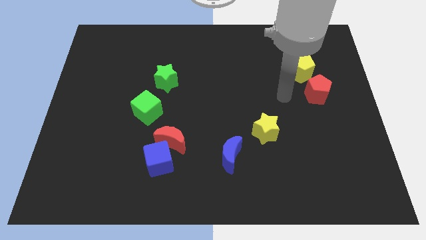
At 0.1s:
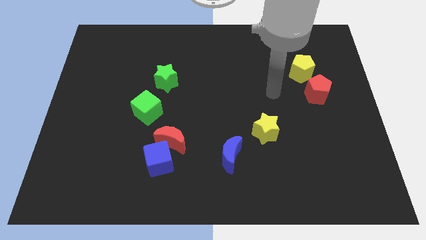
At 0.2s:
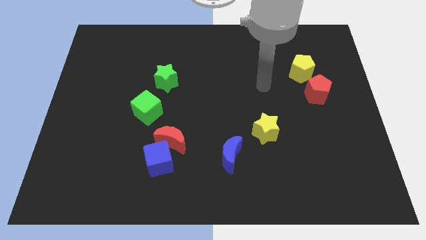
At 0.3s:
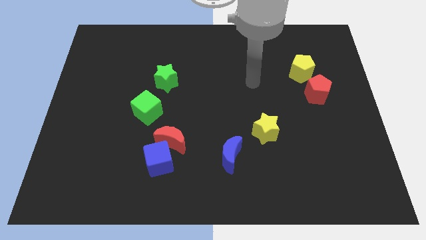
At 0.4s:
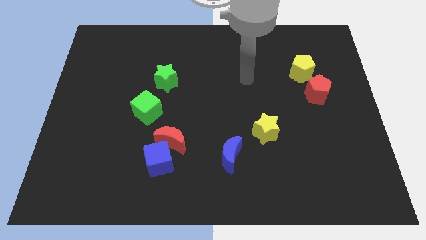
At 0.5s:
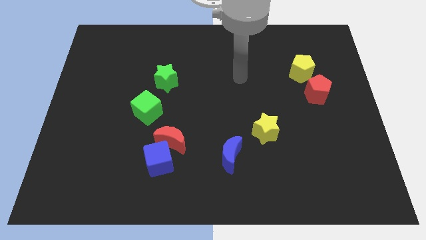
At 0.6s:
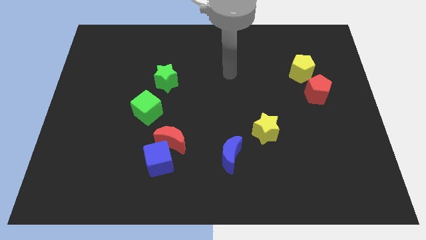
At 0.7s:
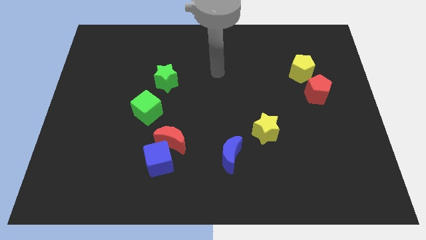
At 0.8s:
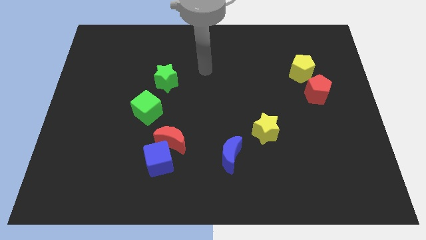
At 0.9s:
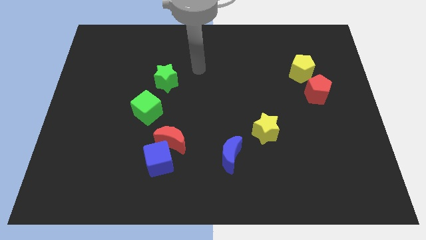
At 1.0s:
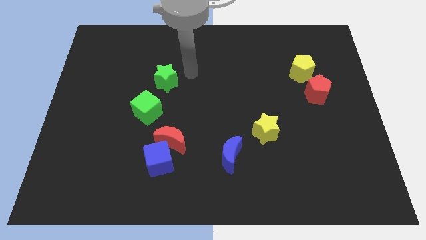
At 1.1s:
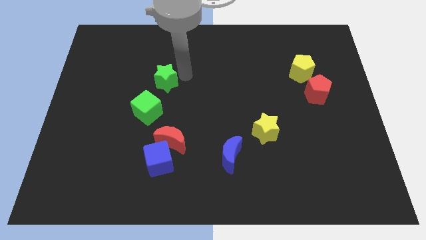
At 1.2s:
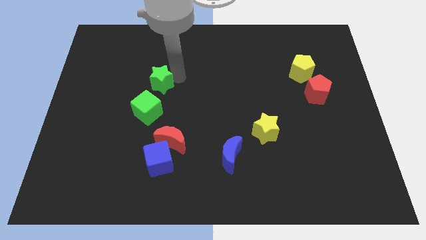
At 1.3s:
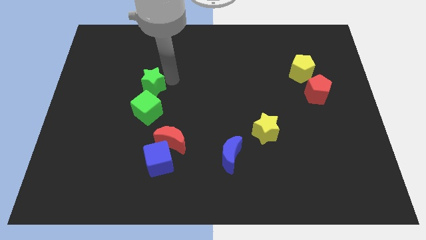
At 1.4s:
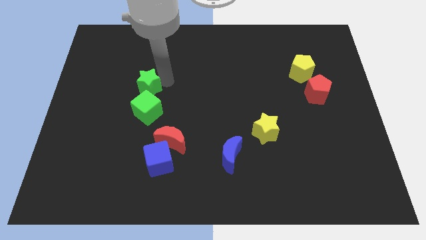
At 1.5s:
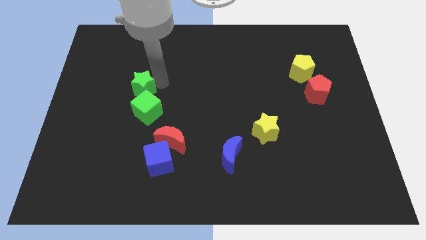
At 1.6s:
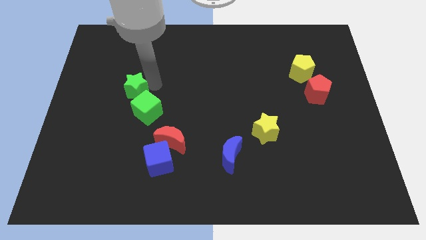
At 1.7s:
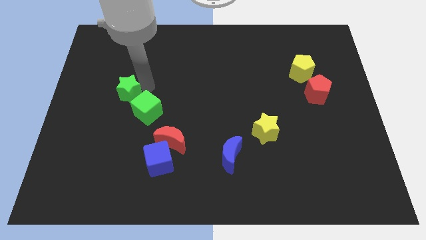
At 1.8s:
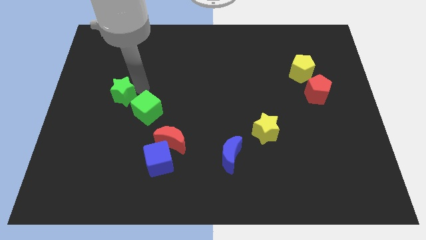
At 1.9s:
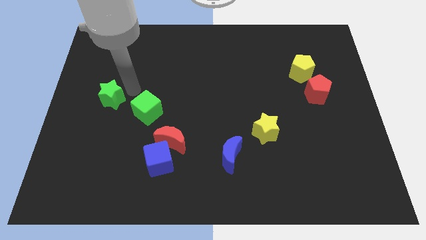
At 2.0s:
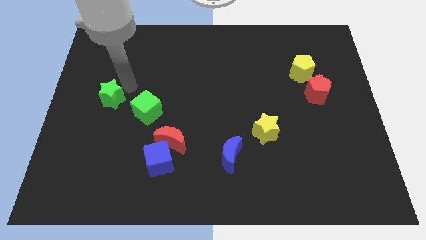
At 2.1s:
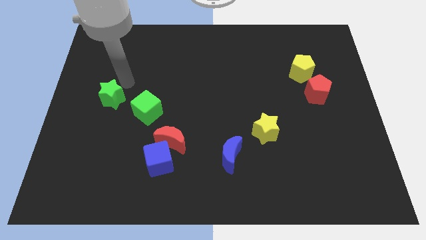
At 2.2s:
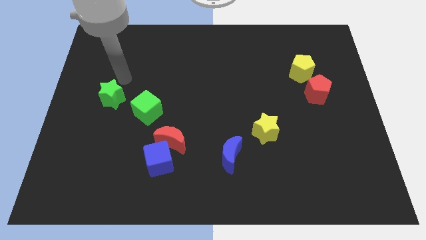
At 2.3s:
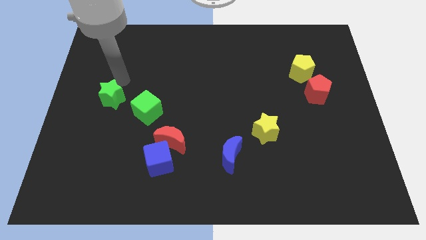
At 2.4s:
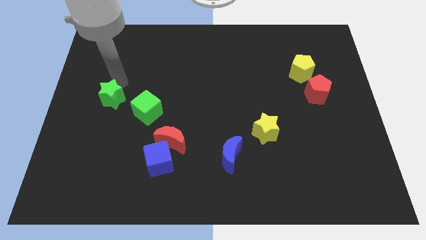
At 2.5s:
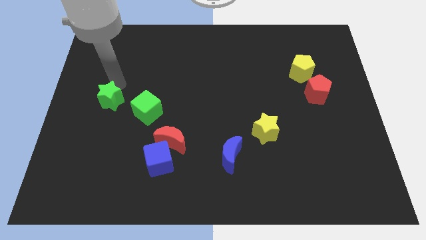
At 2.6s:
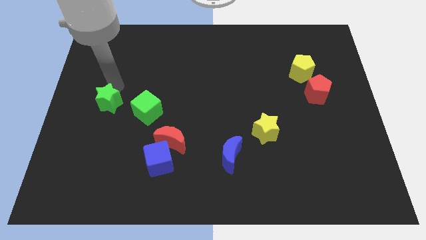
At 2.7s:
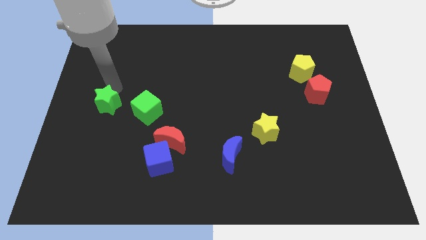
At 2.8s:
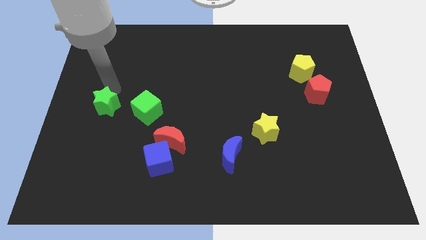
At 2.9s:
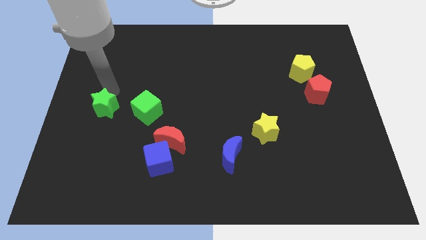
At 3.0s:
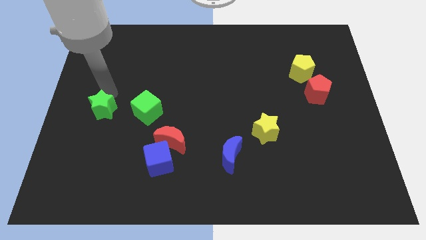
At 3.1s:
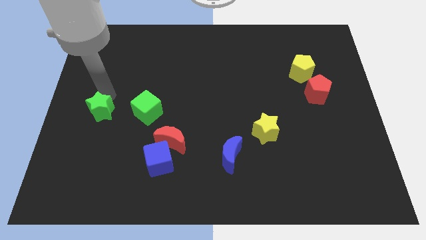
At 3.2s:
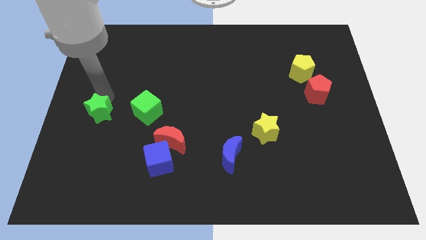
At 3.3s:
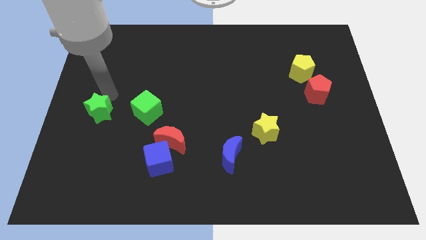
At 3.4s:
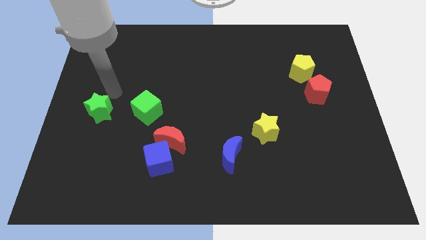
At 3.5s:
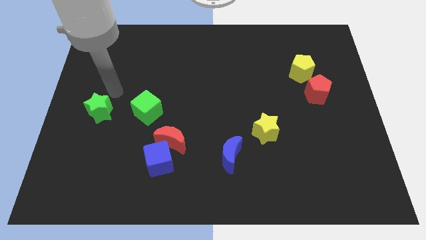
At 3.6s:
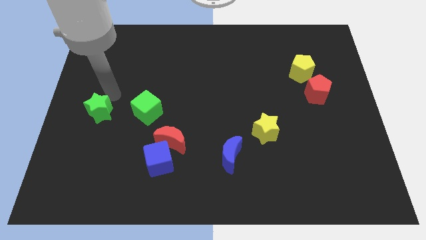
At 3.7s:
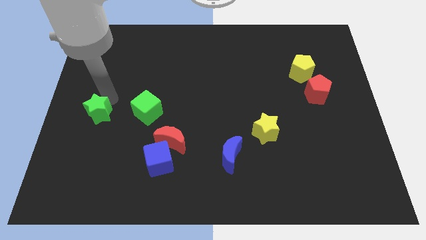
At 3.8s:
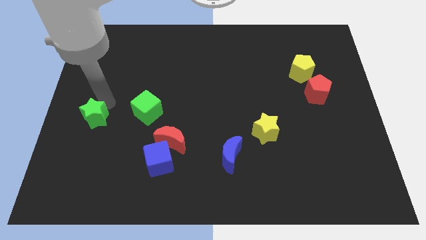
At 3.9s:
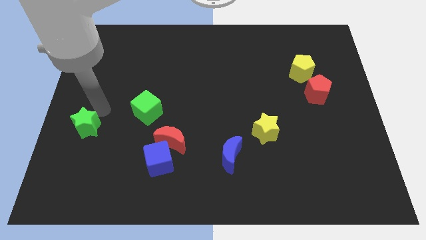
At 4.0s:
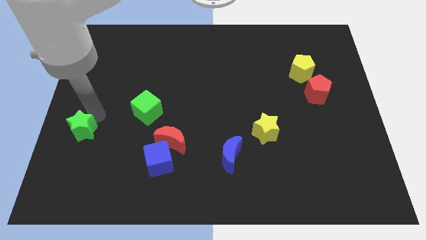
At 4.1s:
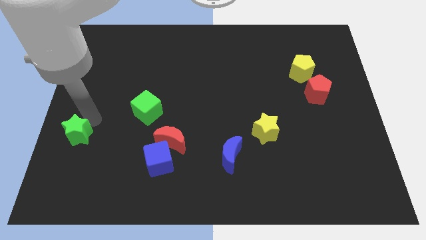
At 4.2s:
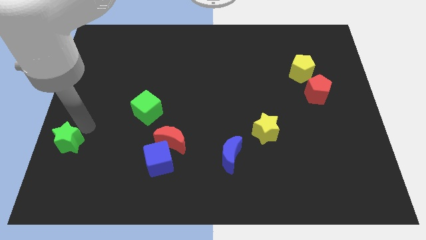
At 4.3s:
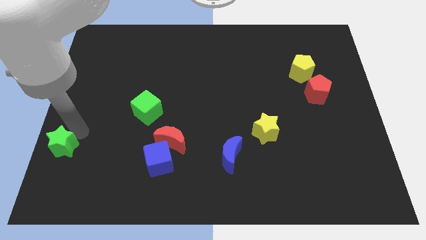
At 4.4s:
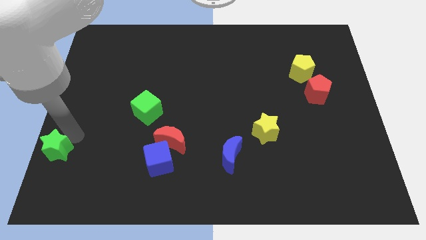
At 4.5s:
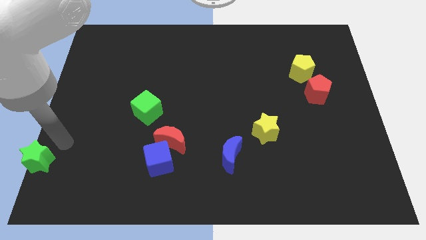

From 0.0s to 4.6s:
move the green star to the bottom left

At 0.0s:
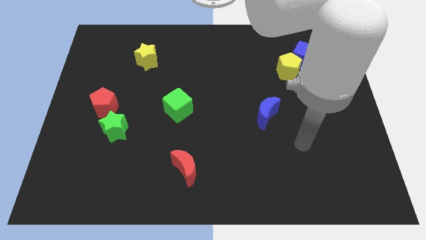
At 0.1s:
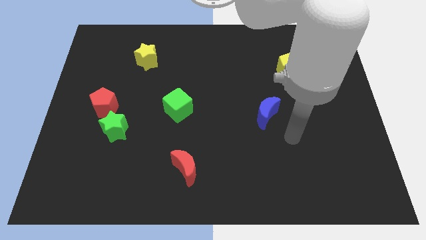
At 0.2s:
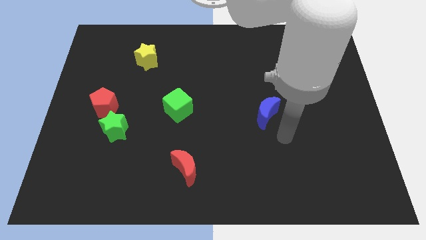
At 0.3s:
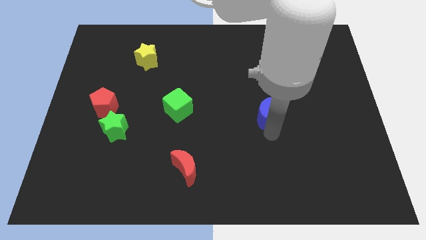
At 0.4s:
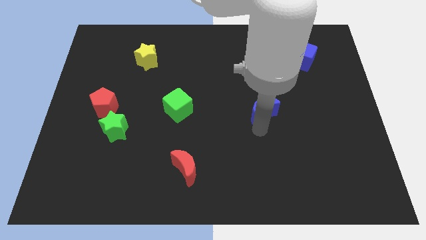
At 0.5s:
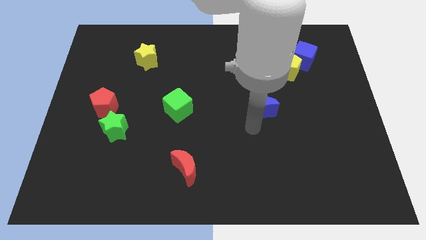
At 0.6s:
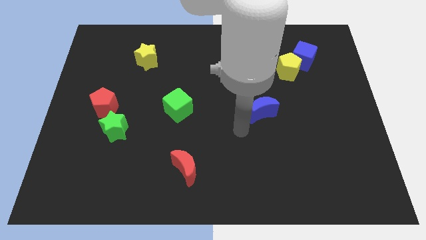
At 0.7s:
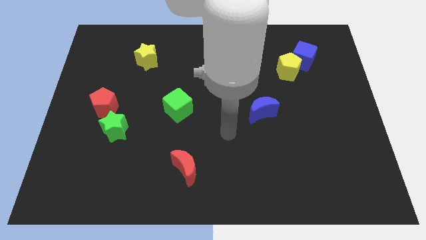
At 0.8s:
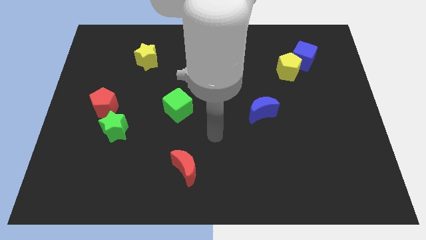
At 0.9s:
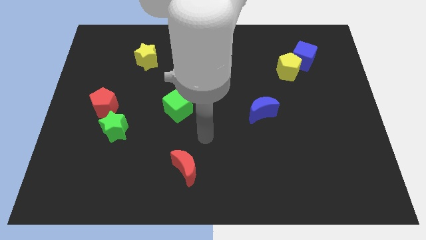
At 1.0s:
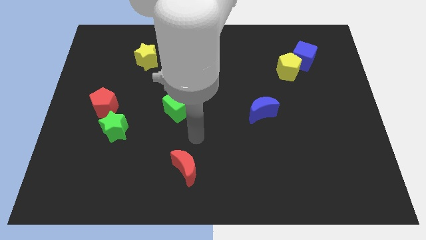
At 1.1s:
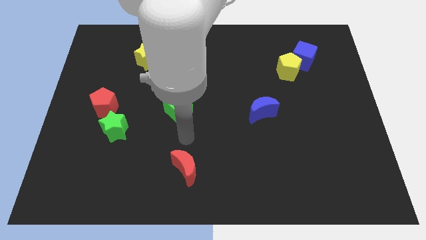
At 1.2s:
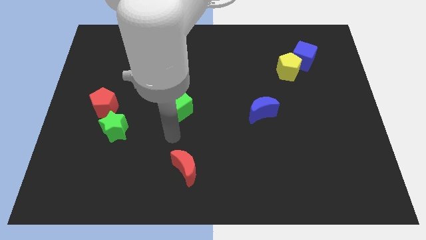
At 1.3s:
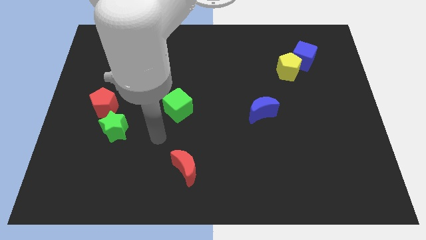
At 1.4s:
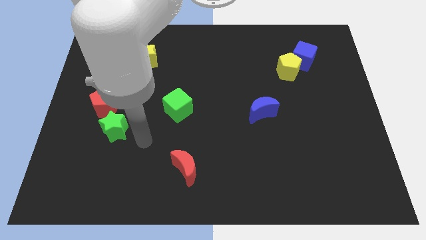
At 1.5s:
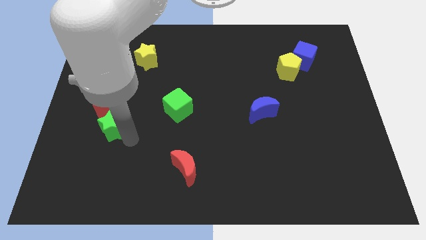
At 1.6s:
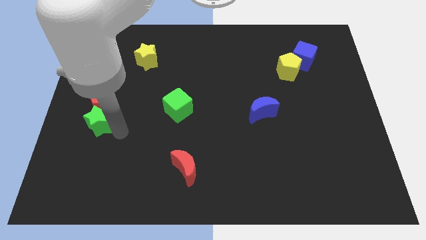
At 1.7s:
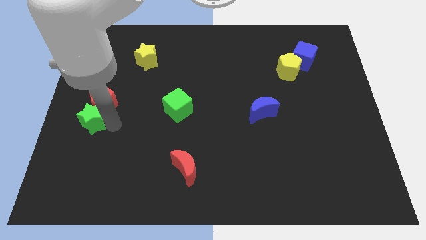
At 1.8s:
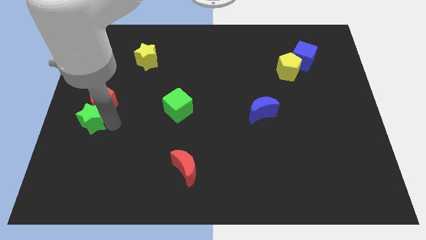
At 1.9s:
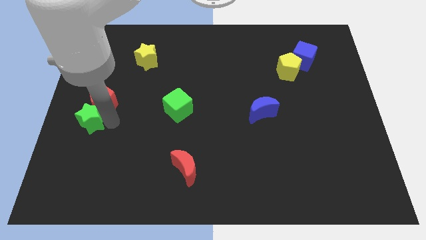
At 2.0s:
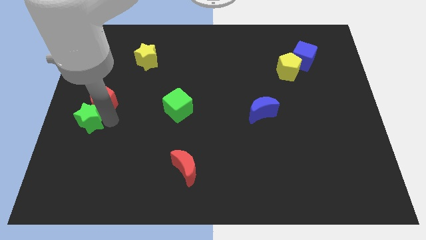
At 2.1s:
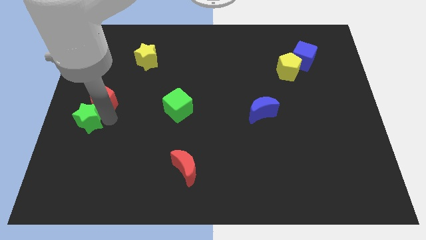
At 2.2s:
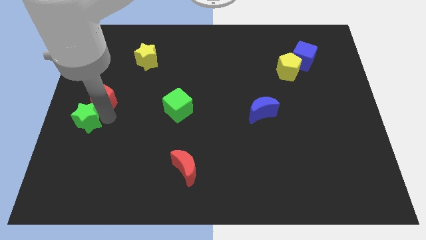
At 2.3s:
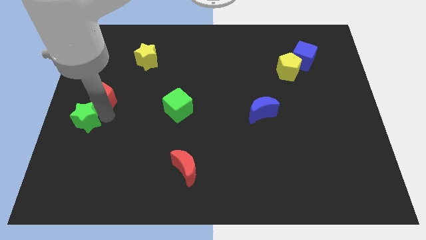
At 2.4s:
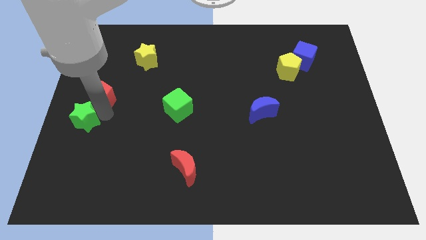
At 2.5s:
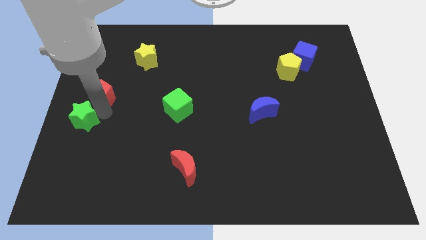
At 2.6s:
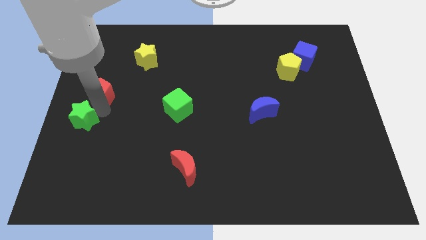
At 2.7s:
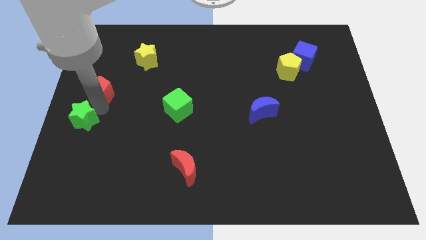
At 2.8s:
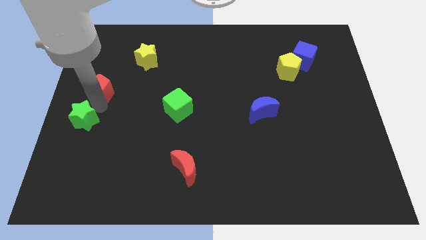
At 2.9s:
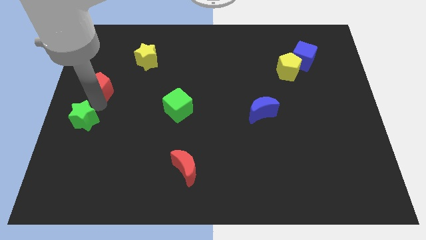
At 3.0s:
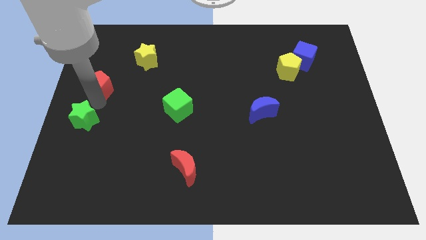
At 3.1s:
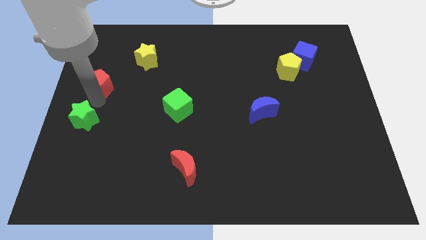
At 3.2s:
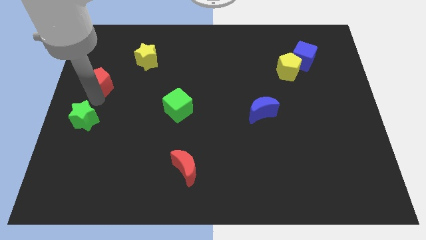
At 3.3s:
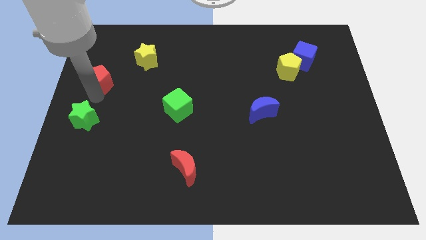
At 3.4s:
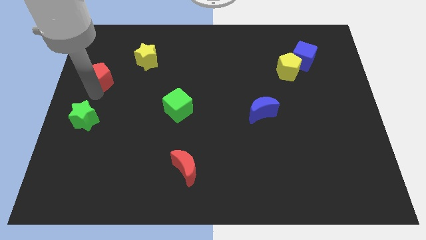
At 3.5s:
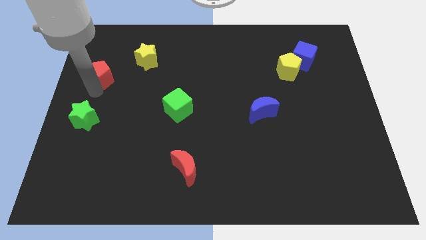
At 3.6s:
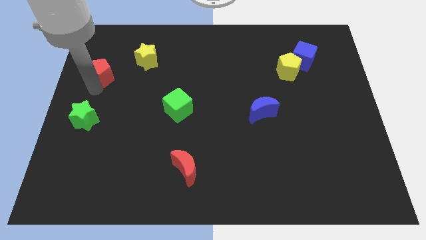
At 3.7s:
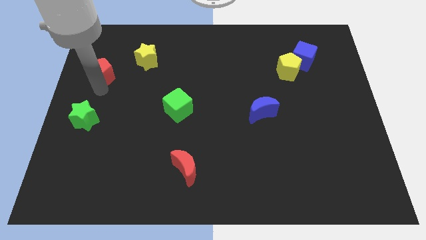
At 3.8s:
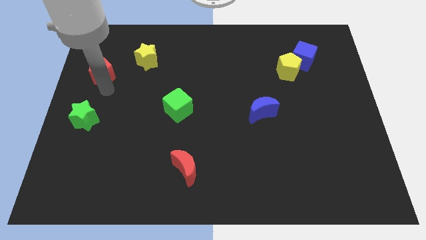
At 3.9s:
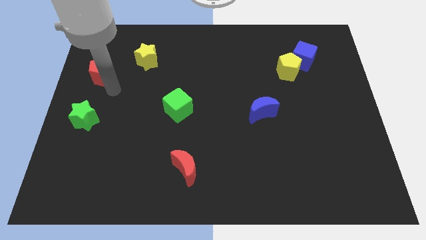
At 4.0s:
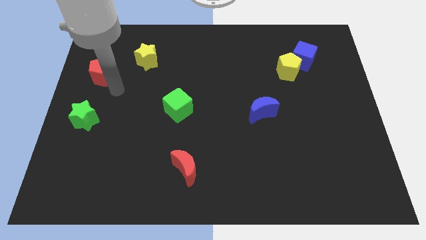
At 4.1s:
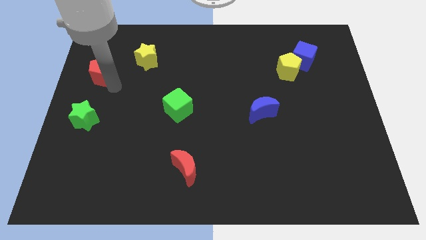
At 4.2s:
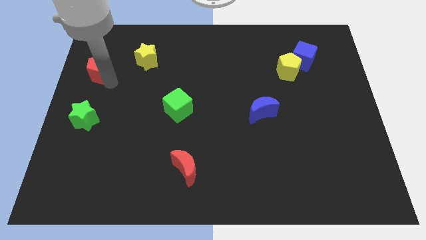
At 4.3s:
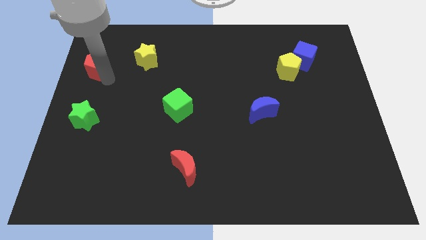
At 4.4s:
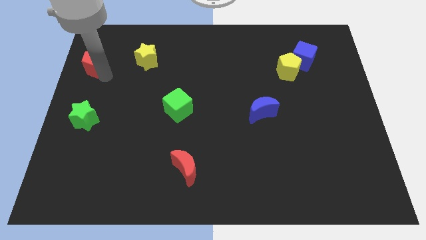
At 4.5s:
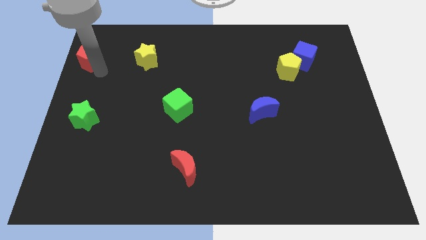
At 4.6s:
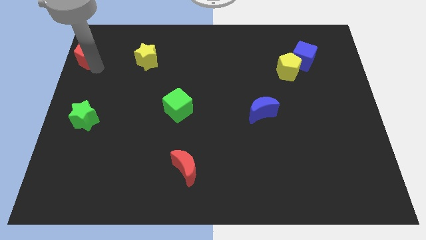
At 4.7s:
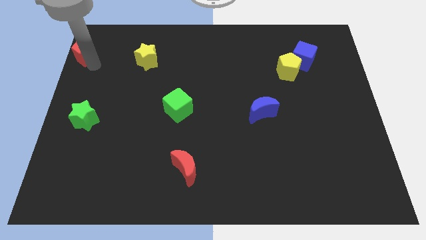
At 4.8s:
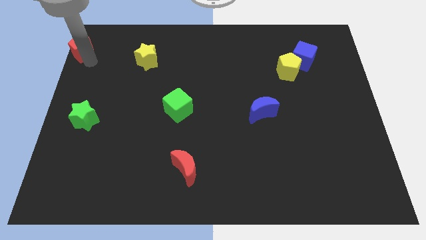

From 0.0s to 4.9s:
slide the red pentagon to the top left of the board
